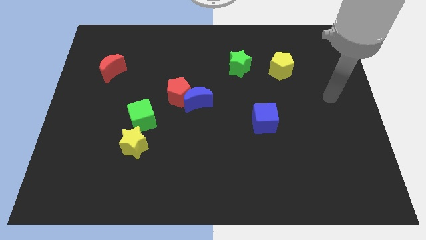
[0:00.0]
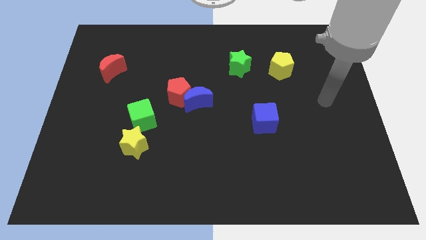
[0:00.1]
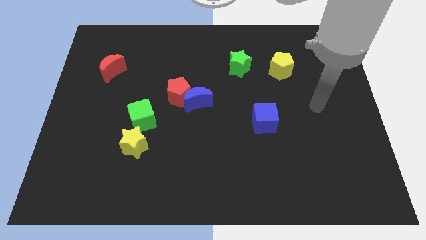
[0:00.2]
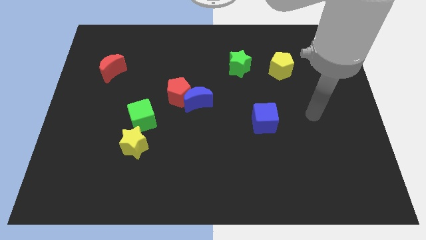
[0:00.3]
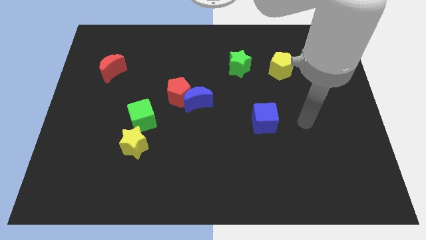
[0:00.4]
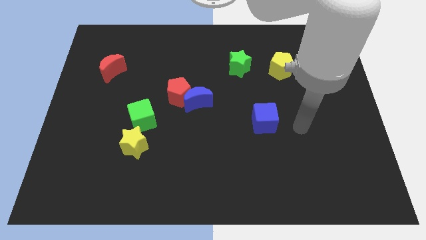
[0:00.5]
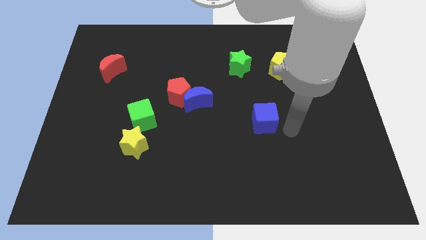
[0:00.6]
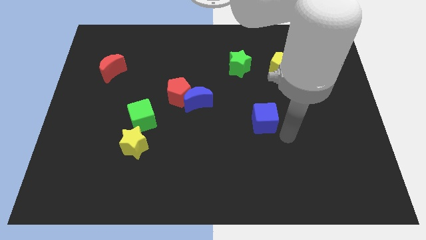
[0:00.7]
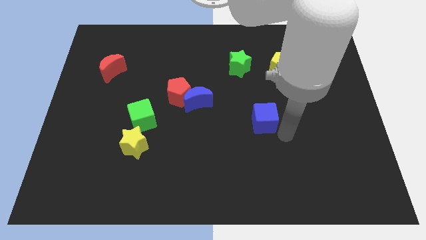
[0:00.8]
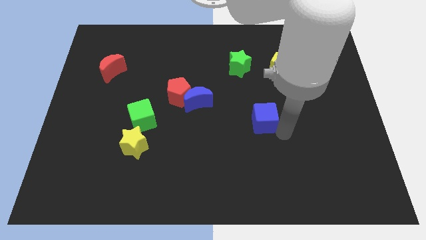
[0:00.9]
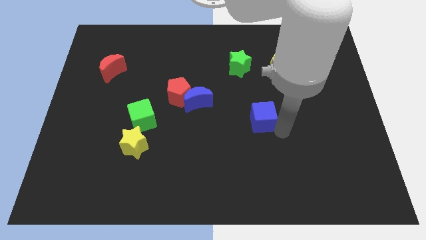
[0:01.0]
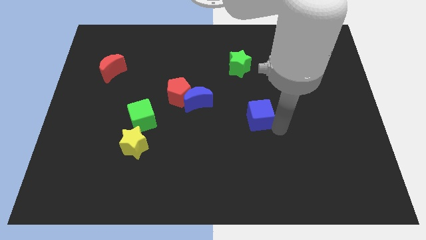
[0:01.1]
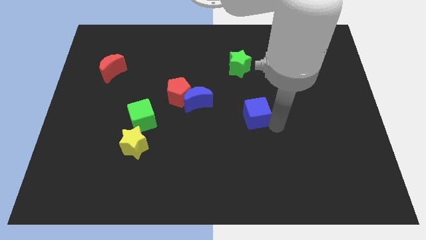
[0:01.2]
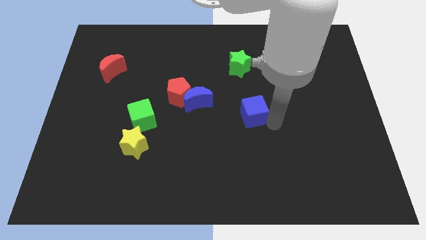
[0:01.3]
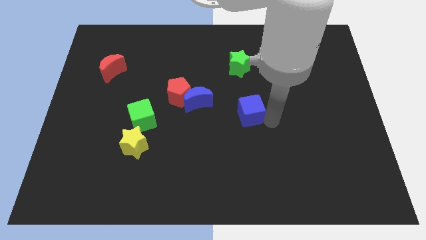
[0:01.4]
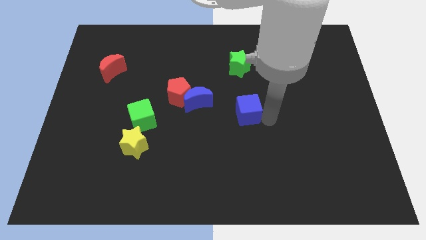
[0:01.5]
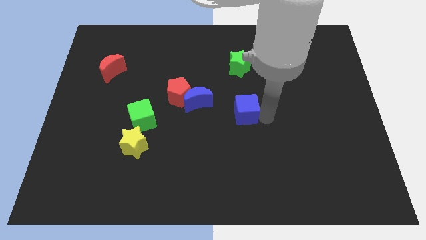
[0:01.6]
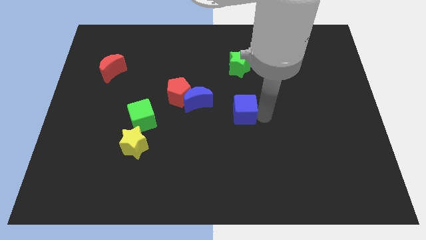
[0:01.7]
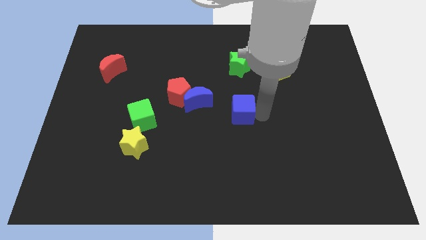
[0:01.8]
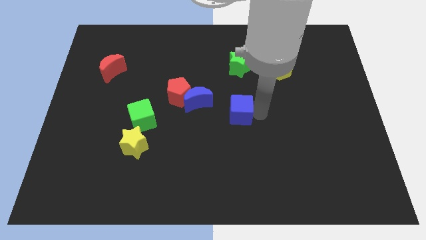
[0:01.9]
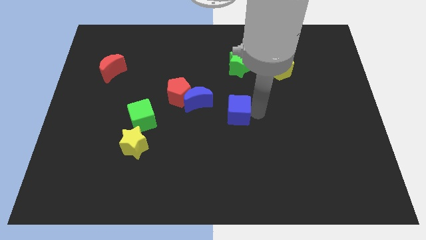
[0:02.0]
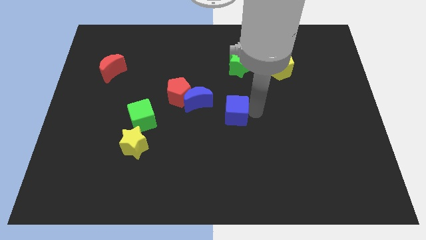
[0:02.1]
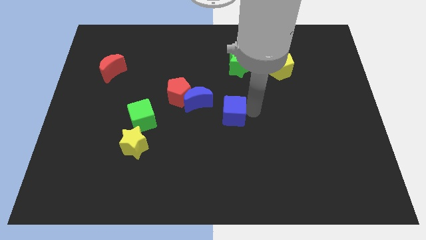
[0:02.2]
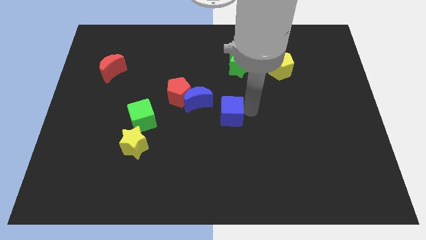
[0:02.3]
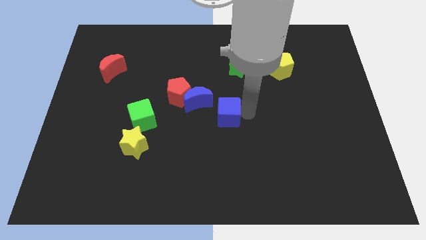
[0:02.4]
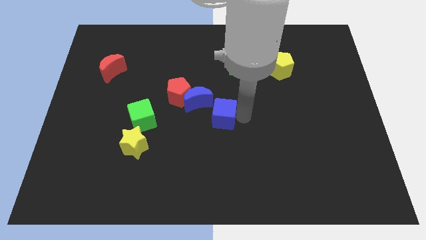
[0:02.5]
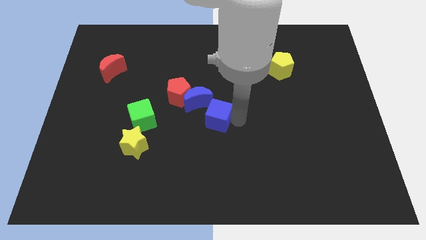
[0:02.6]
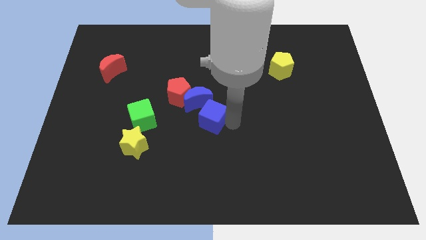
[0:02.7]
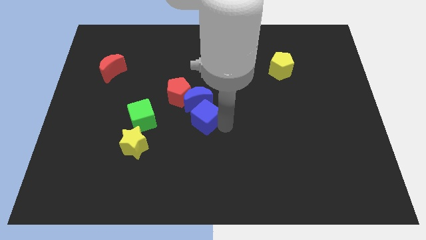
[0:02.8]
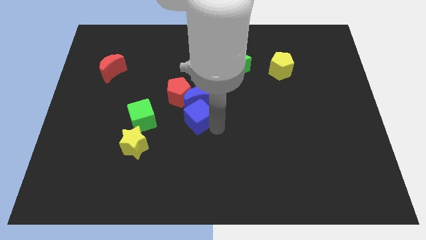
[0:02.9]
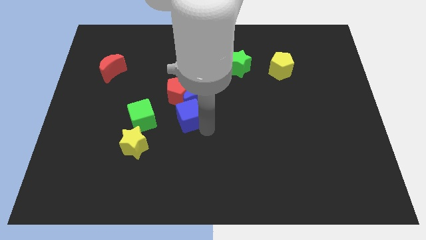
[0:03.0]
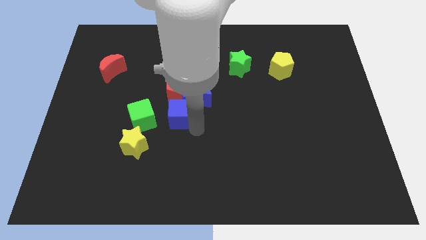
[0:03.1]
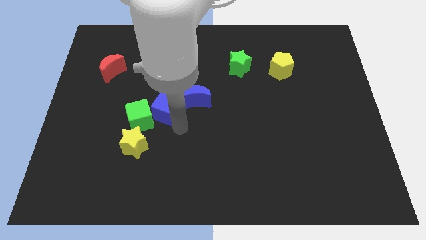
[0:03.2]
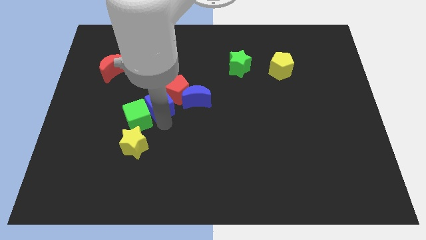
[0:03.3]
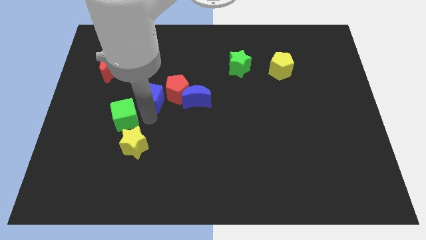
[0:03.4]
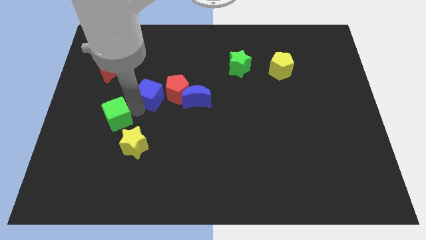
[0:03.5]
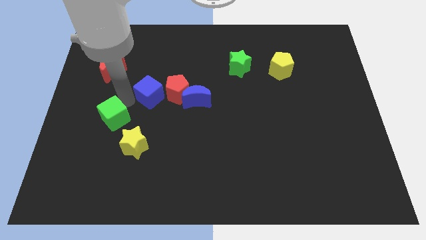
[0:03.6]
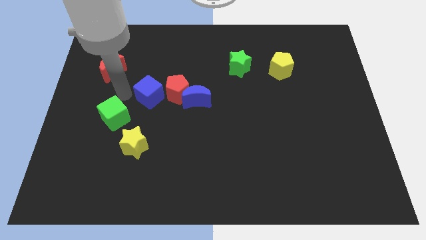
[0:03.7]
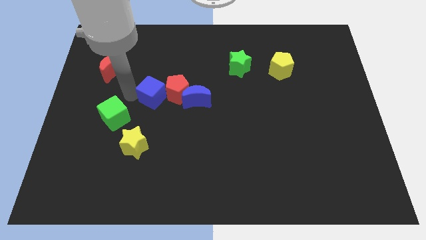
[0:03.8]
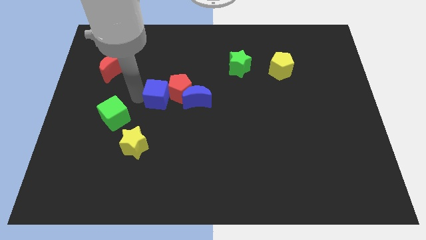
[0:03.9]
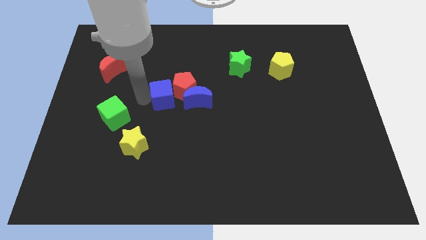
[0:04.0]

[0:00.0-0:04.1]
push the blue cube a little up and left

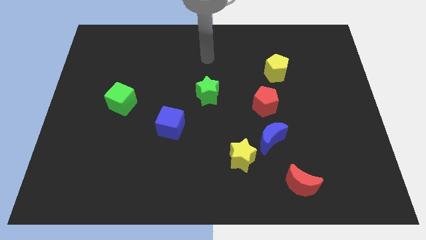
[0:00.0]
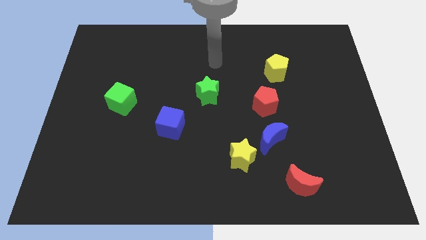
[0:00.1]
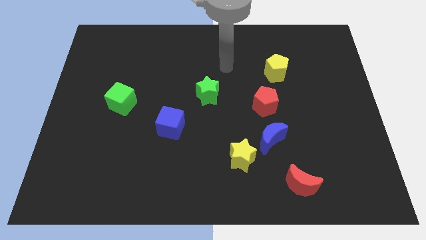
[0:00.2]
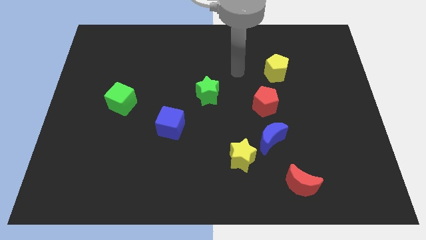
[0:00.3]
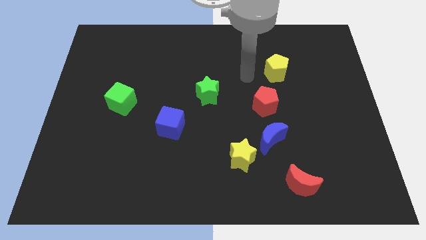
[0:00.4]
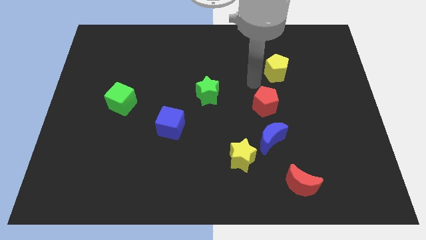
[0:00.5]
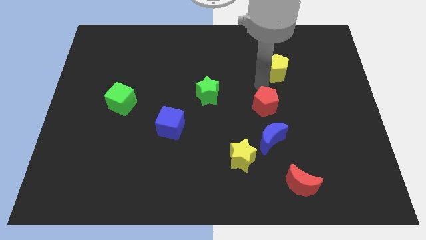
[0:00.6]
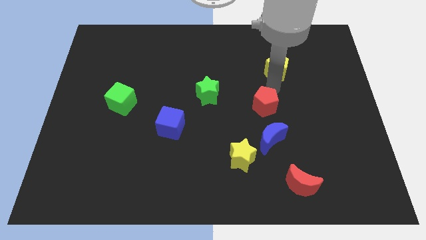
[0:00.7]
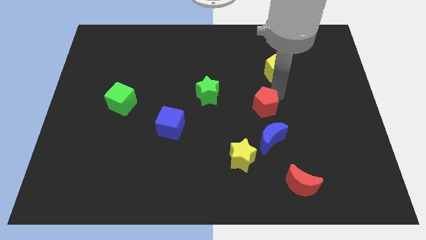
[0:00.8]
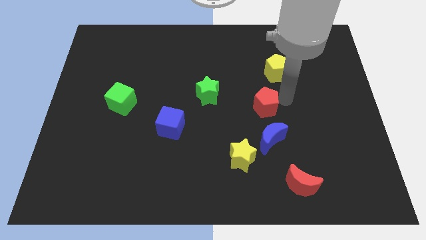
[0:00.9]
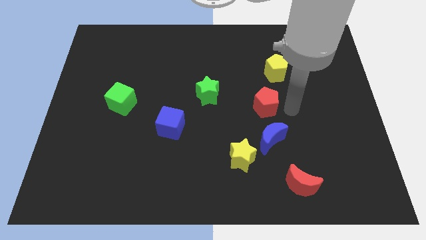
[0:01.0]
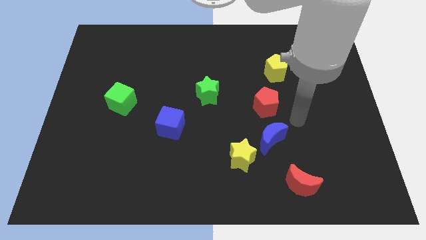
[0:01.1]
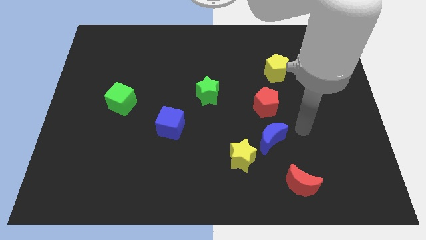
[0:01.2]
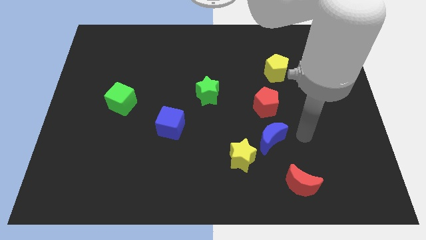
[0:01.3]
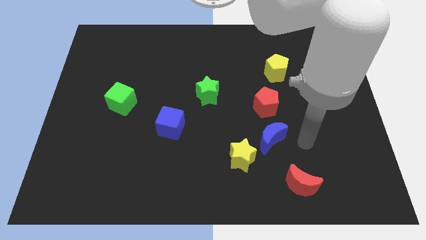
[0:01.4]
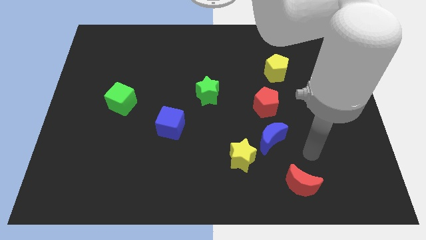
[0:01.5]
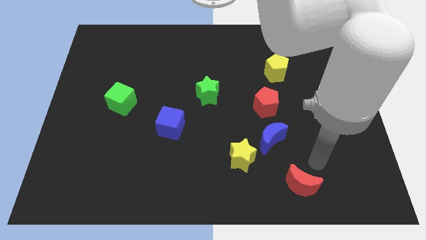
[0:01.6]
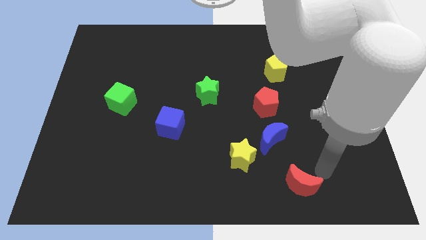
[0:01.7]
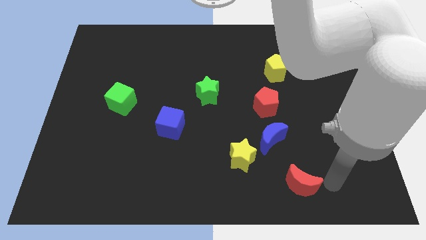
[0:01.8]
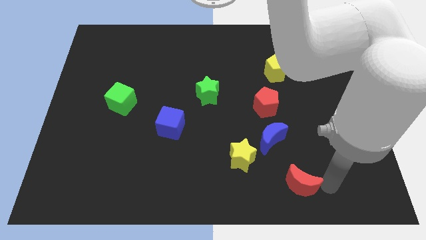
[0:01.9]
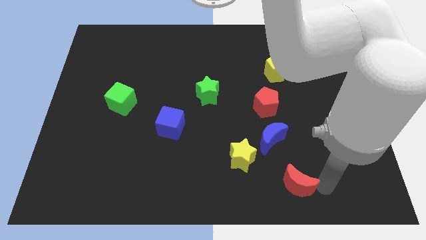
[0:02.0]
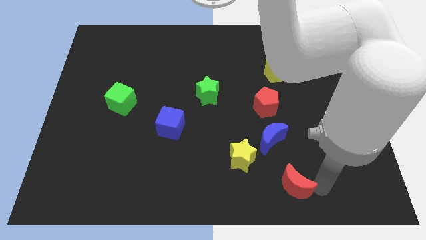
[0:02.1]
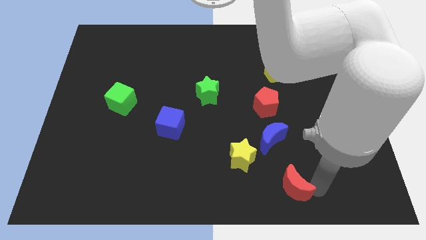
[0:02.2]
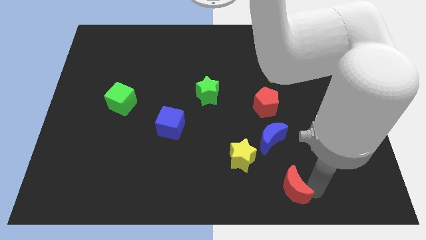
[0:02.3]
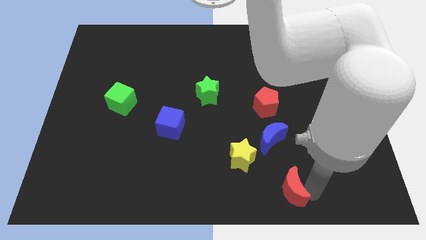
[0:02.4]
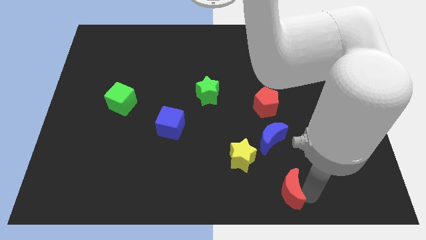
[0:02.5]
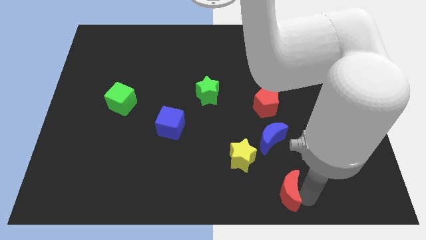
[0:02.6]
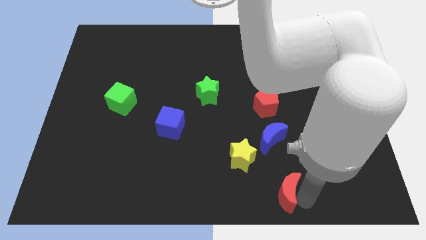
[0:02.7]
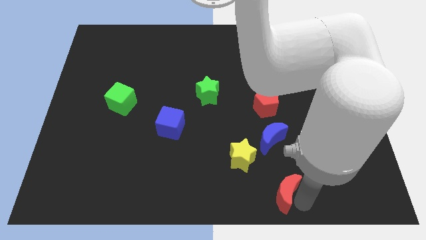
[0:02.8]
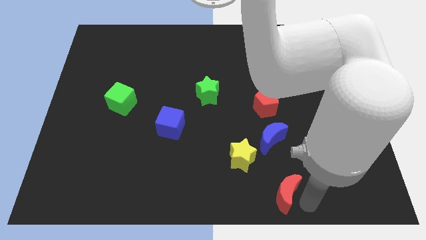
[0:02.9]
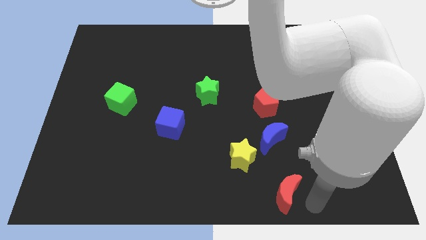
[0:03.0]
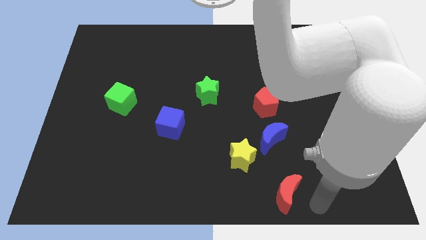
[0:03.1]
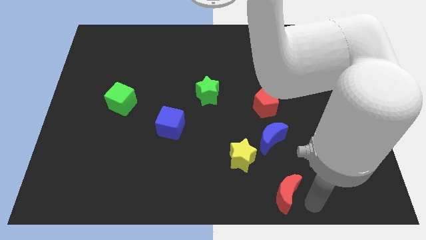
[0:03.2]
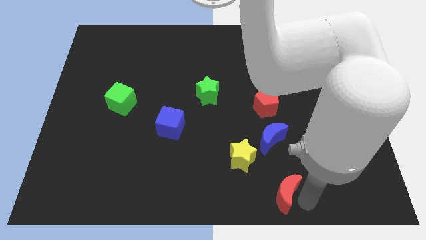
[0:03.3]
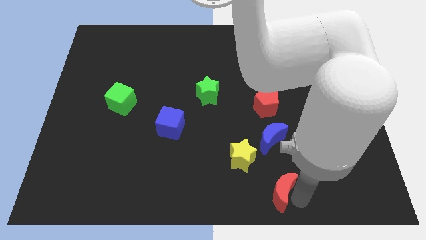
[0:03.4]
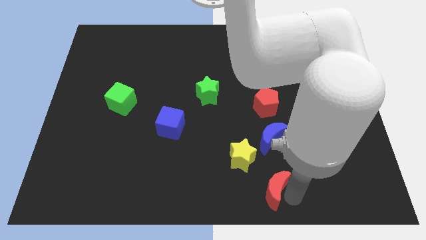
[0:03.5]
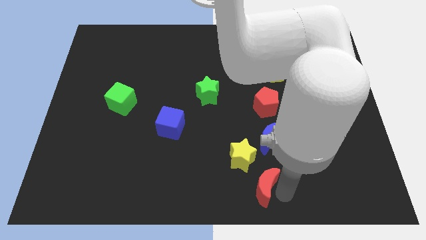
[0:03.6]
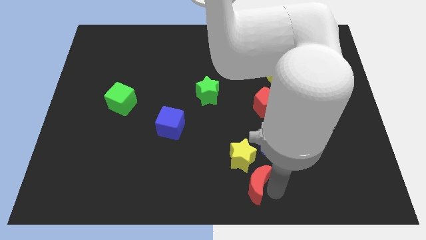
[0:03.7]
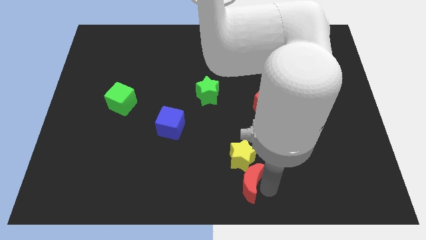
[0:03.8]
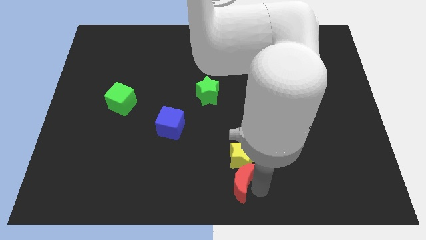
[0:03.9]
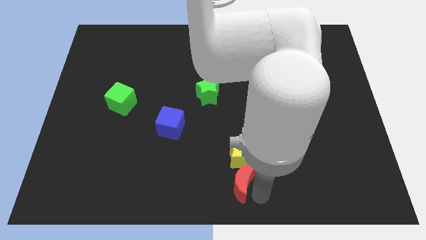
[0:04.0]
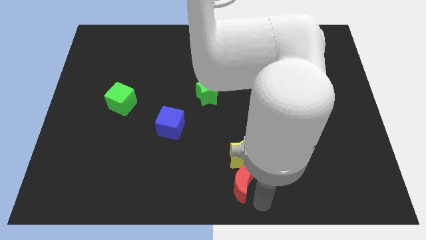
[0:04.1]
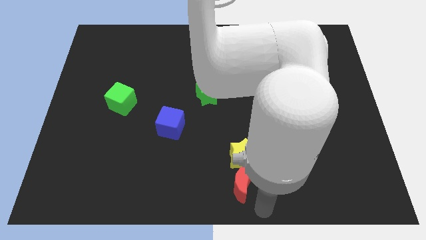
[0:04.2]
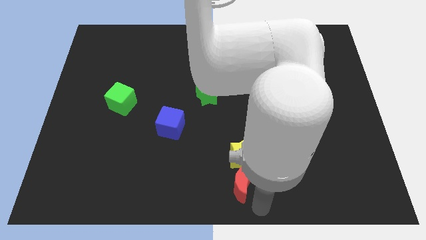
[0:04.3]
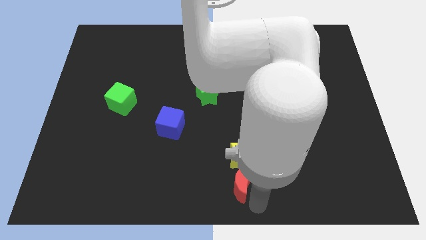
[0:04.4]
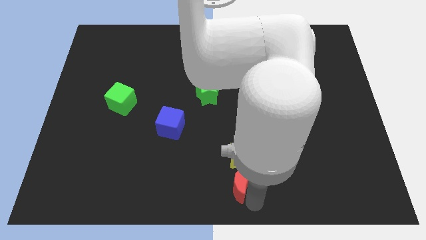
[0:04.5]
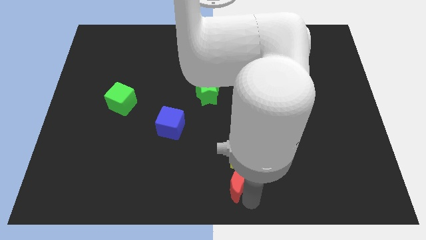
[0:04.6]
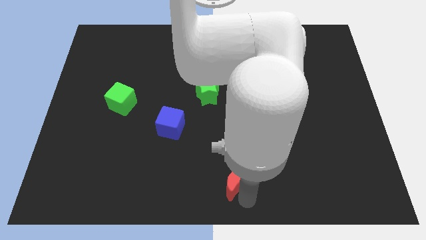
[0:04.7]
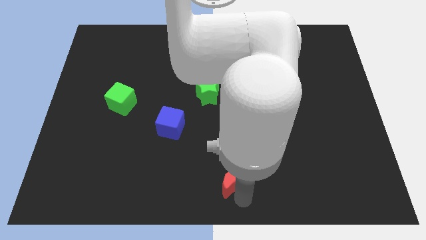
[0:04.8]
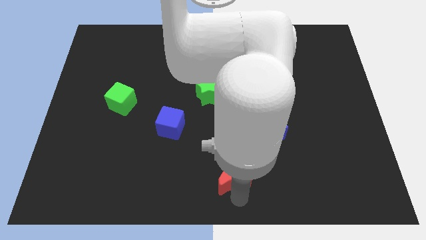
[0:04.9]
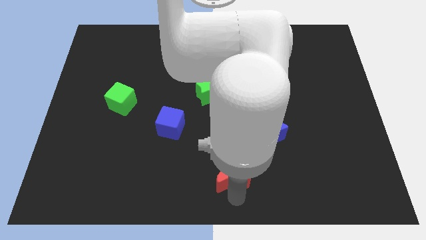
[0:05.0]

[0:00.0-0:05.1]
push the red moon upwards and left diagonally slightly
